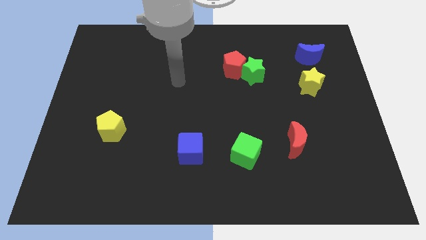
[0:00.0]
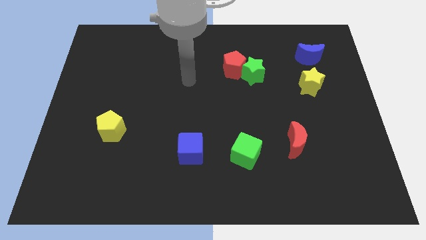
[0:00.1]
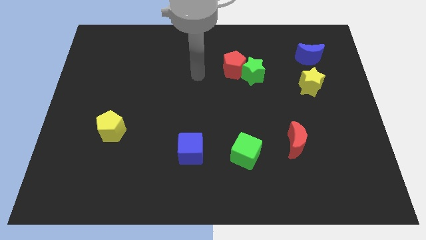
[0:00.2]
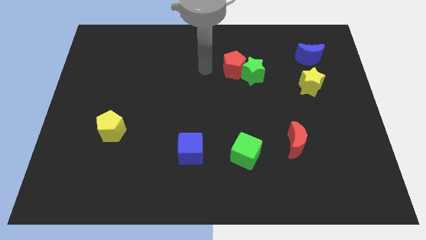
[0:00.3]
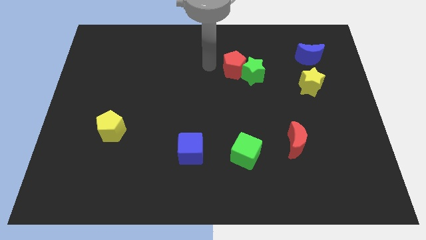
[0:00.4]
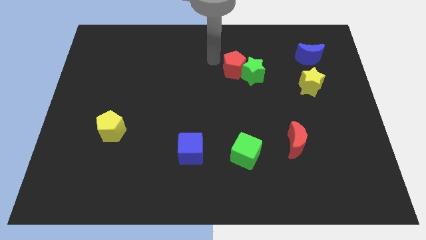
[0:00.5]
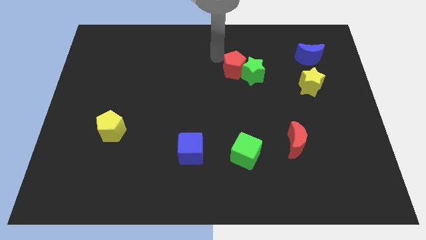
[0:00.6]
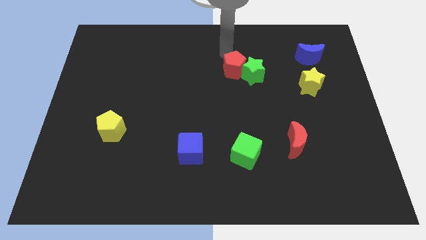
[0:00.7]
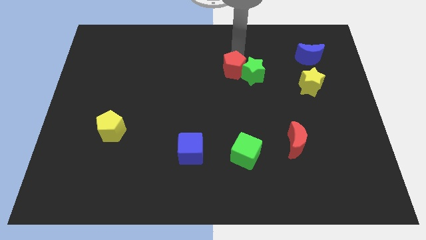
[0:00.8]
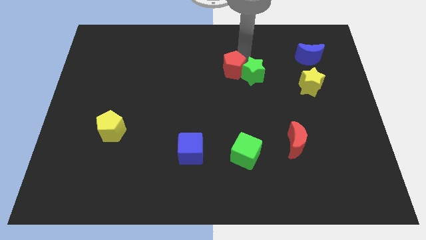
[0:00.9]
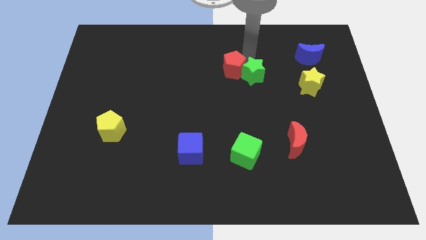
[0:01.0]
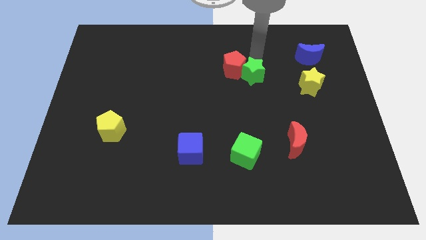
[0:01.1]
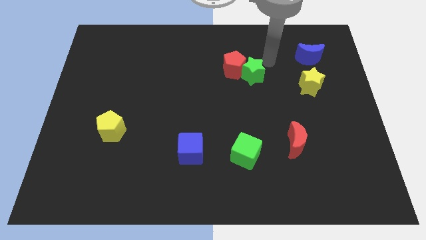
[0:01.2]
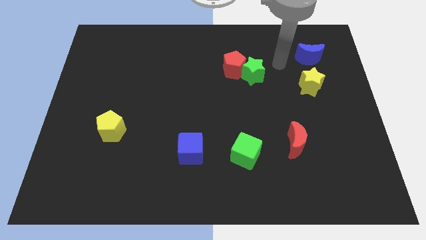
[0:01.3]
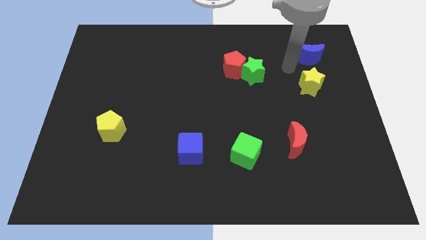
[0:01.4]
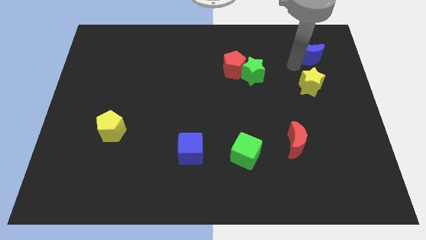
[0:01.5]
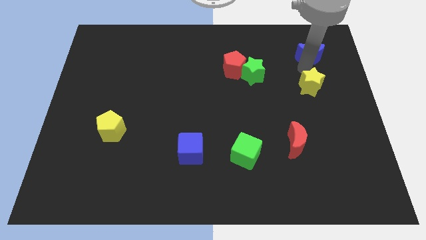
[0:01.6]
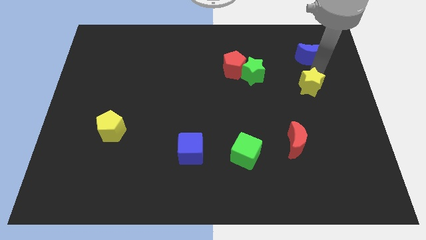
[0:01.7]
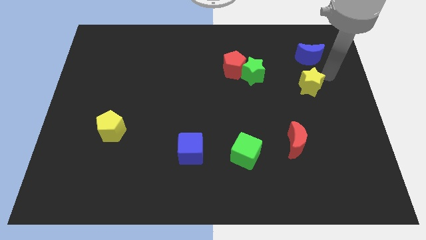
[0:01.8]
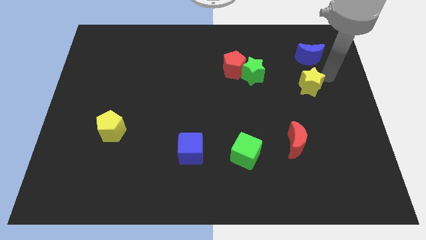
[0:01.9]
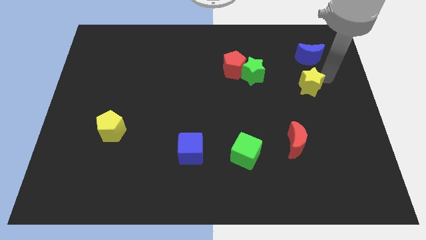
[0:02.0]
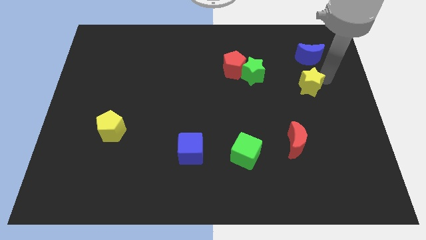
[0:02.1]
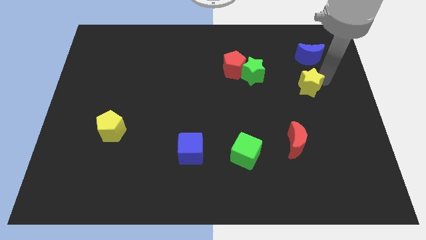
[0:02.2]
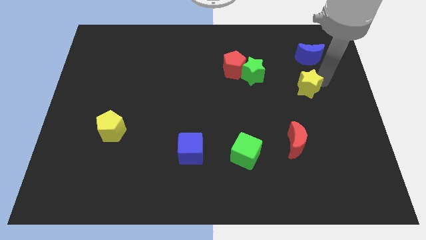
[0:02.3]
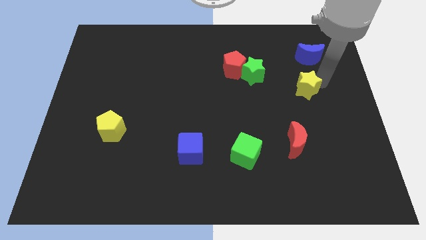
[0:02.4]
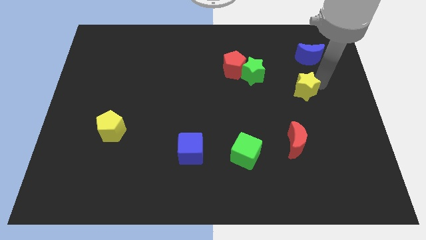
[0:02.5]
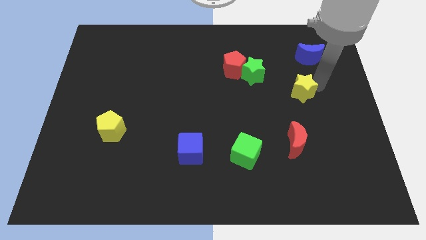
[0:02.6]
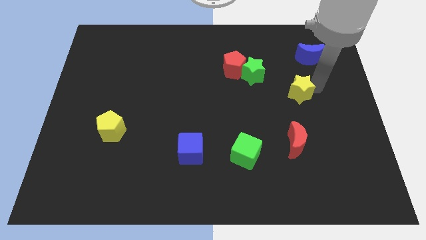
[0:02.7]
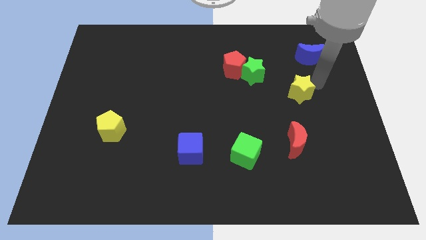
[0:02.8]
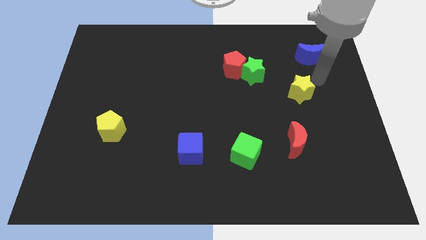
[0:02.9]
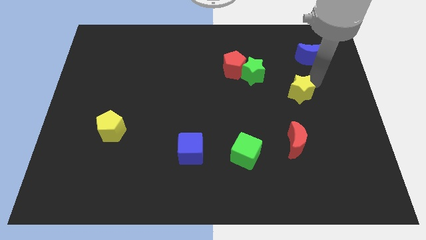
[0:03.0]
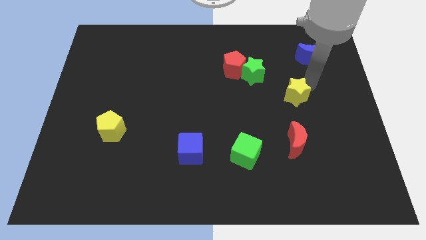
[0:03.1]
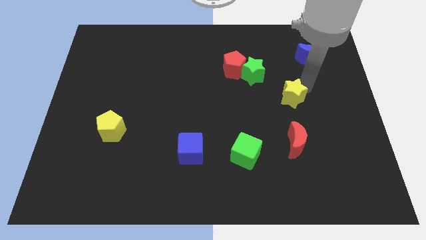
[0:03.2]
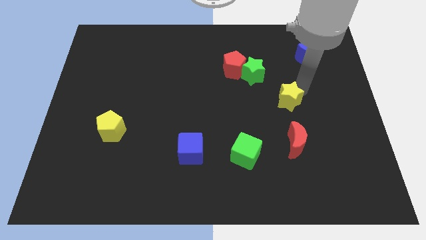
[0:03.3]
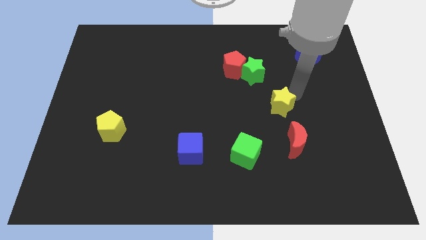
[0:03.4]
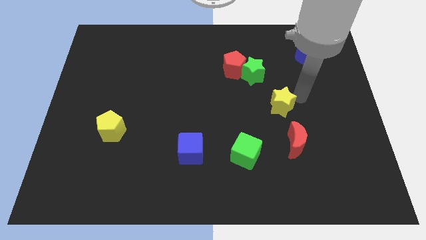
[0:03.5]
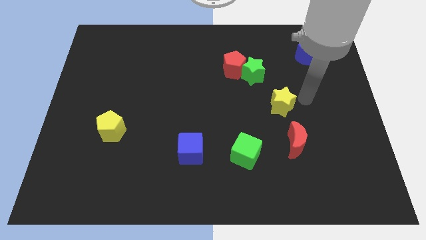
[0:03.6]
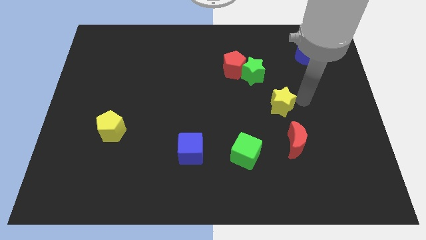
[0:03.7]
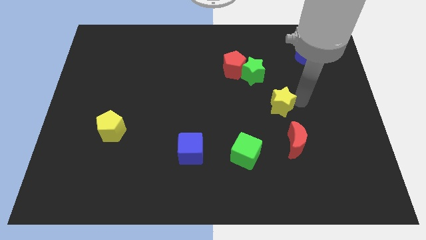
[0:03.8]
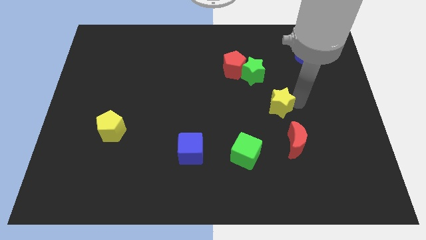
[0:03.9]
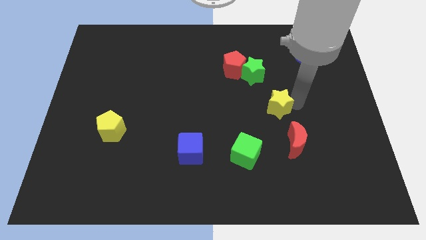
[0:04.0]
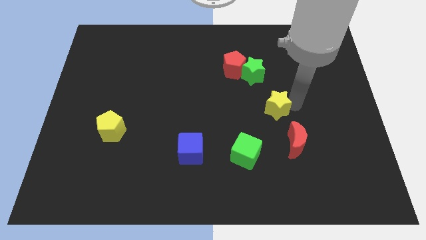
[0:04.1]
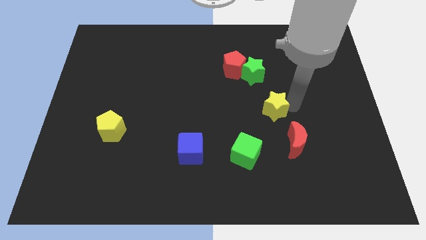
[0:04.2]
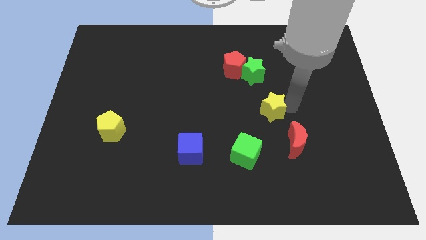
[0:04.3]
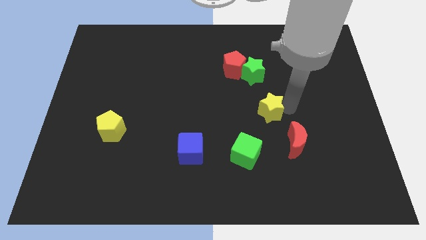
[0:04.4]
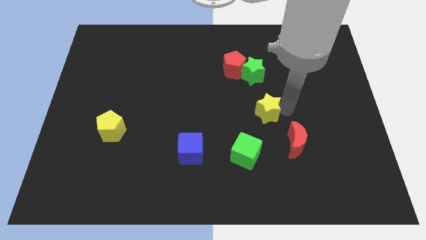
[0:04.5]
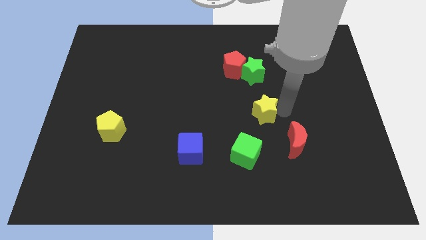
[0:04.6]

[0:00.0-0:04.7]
move the yellow star to the top side of the green cube

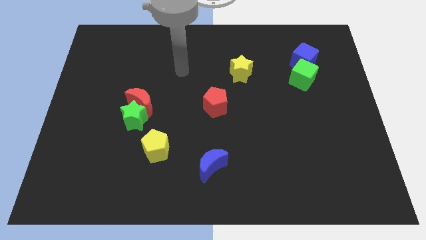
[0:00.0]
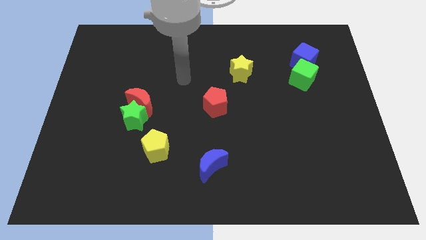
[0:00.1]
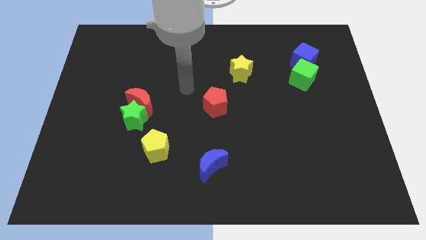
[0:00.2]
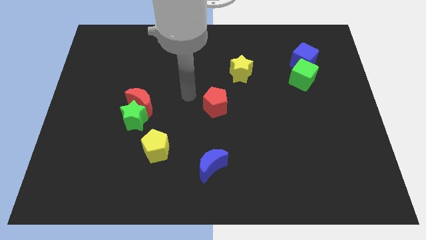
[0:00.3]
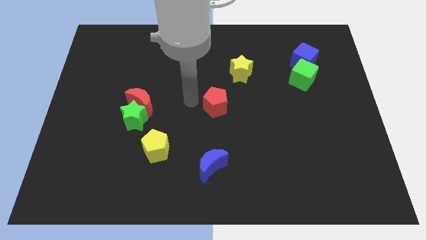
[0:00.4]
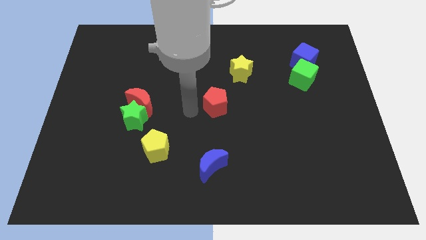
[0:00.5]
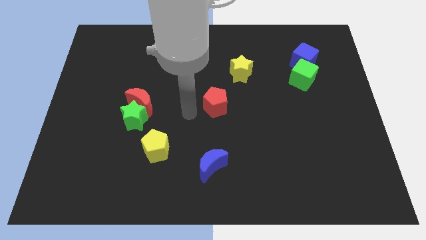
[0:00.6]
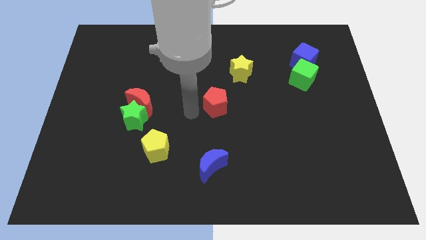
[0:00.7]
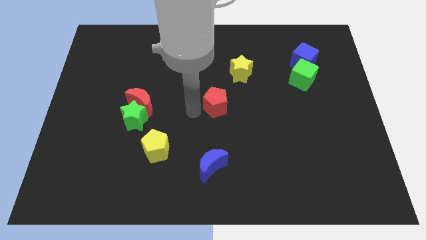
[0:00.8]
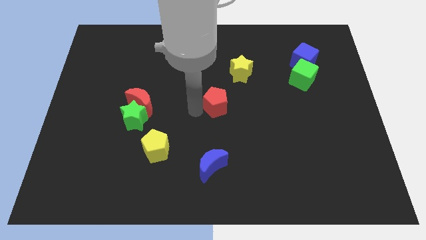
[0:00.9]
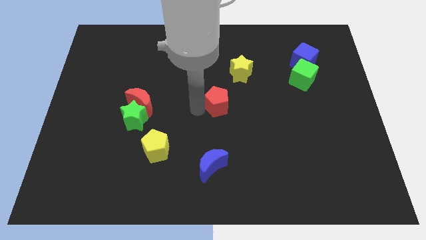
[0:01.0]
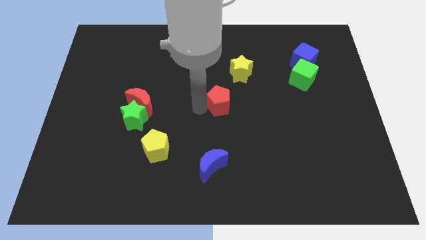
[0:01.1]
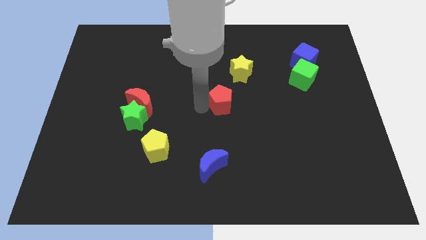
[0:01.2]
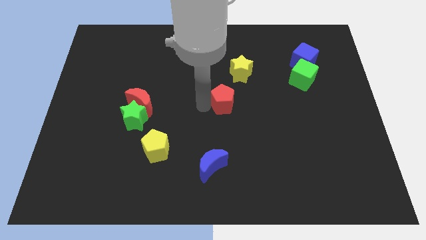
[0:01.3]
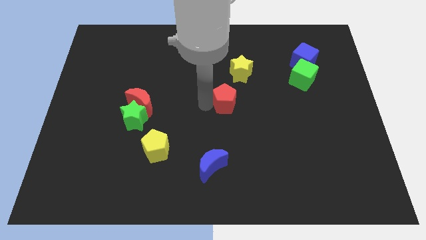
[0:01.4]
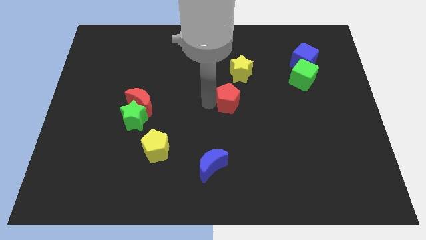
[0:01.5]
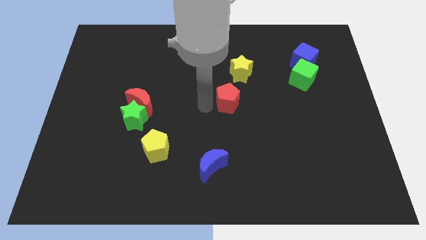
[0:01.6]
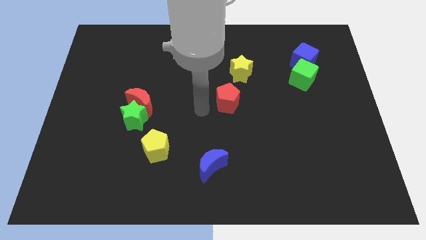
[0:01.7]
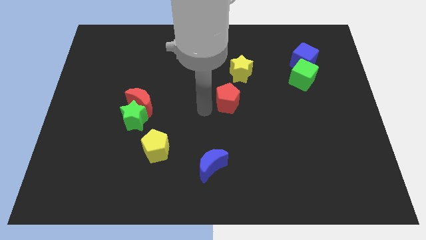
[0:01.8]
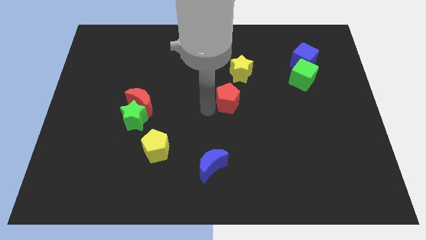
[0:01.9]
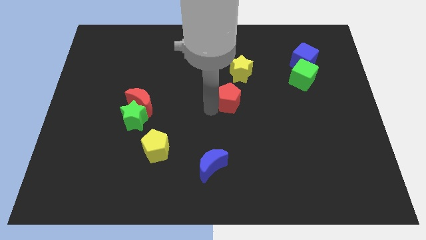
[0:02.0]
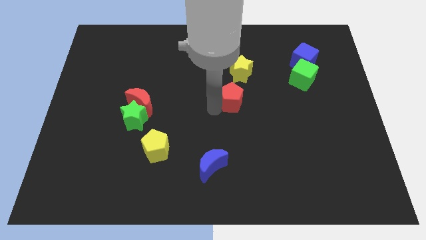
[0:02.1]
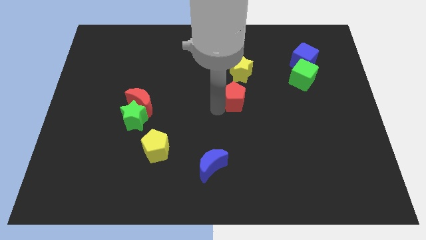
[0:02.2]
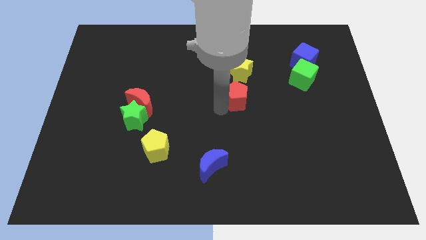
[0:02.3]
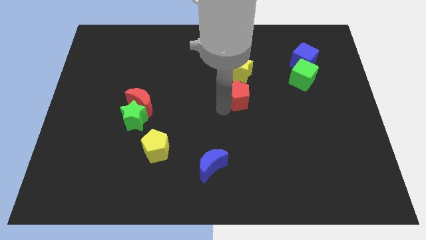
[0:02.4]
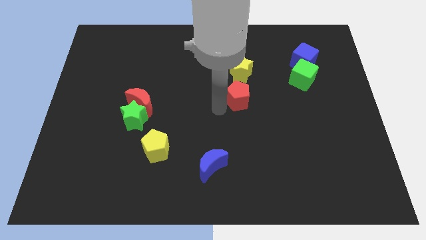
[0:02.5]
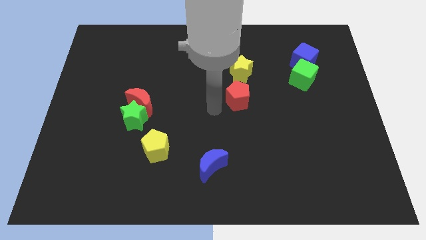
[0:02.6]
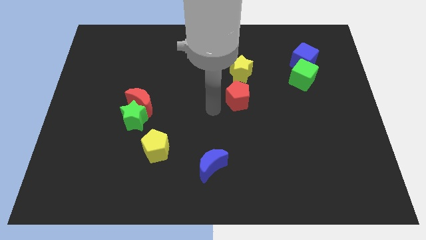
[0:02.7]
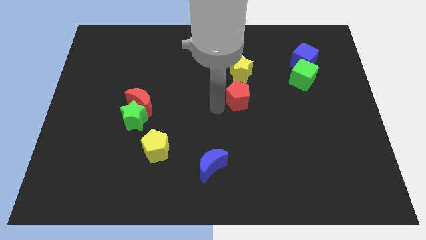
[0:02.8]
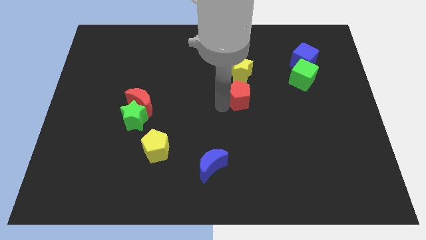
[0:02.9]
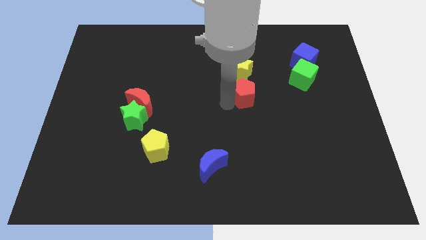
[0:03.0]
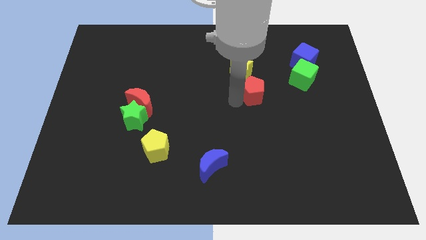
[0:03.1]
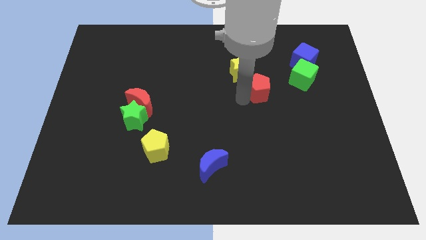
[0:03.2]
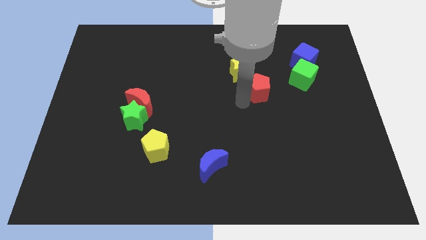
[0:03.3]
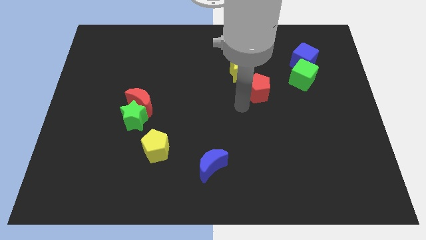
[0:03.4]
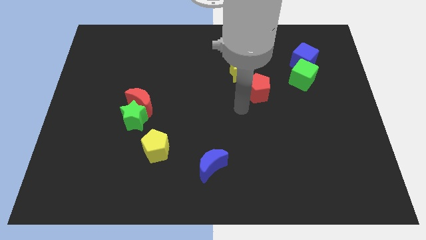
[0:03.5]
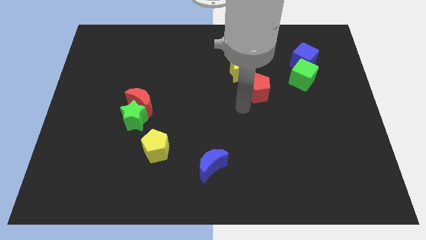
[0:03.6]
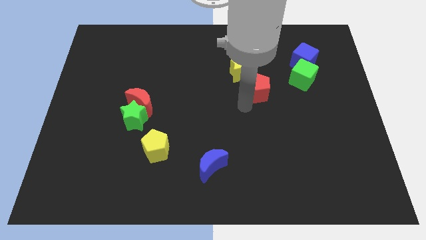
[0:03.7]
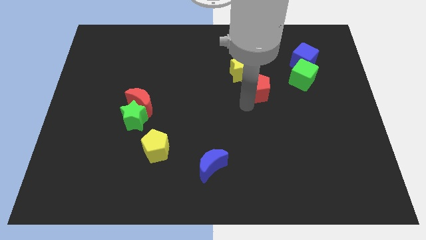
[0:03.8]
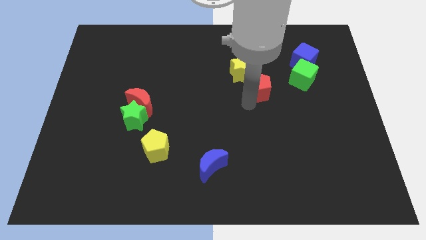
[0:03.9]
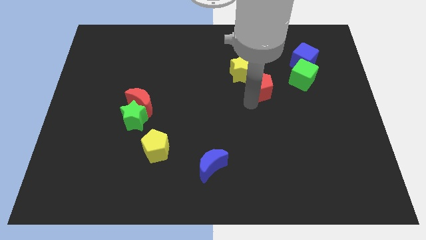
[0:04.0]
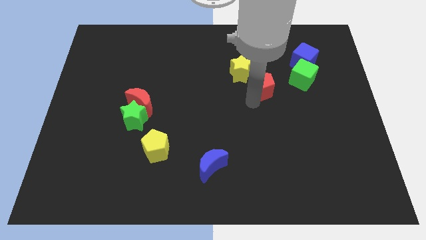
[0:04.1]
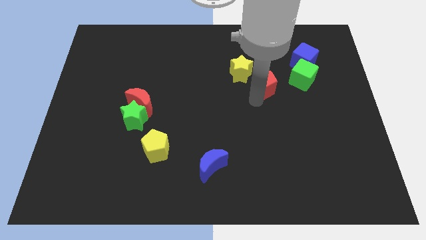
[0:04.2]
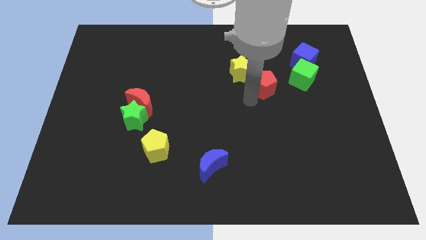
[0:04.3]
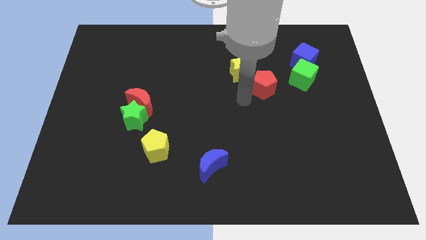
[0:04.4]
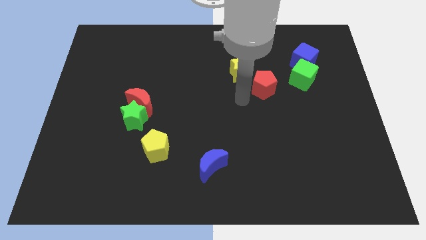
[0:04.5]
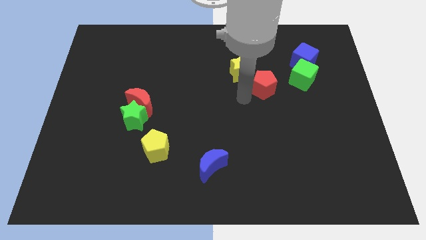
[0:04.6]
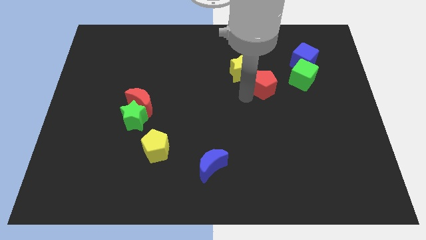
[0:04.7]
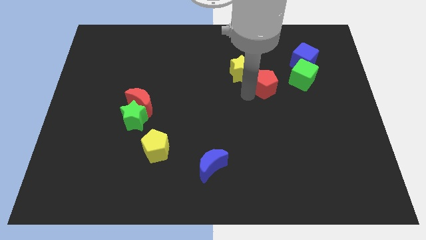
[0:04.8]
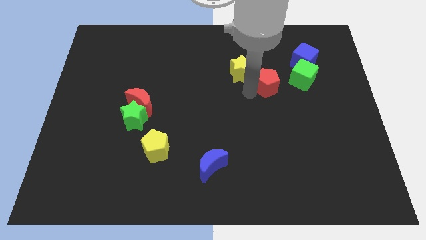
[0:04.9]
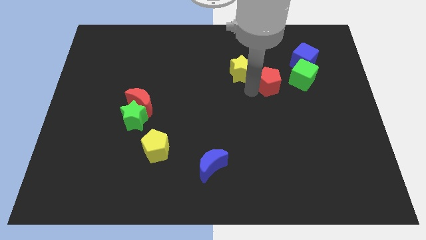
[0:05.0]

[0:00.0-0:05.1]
push the red pentagon to the bottom left of the blue cube
